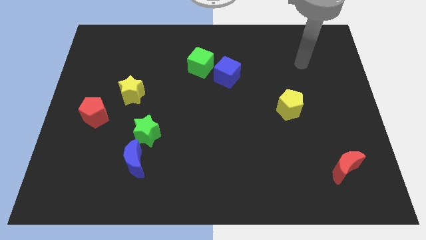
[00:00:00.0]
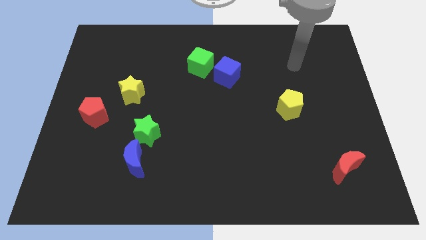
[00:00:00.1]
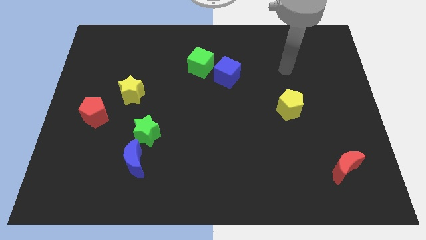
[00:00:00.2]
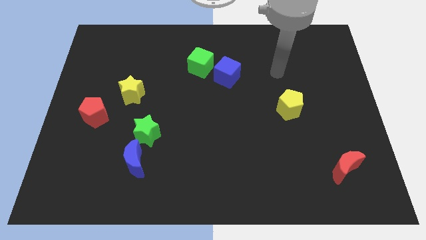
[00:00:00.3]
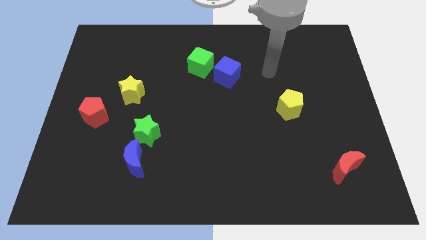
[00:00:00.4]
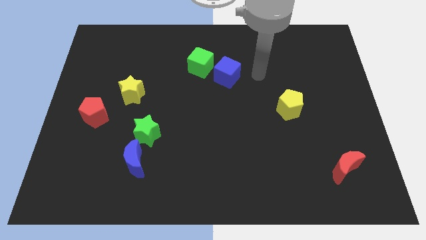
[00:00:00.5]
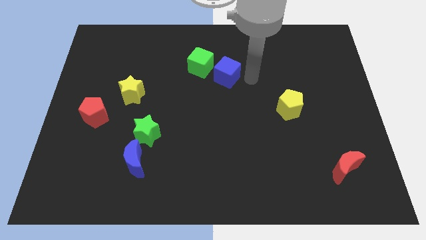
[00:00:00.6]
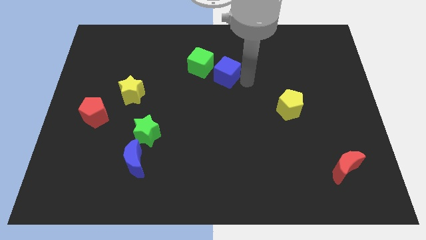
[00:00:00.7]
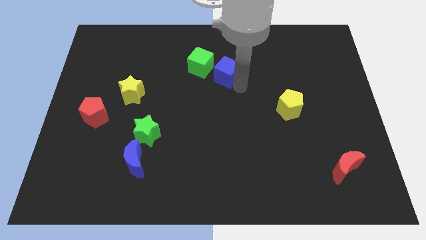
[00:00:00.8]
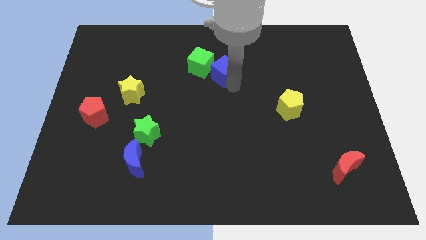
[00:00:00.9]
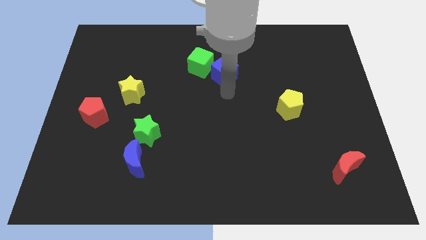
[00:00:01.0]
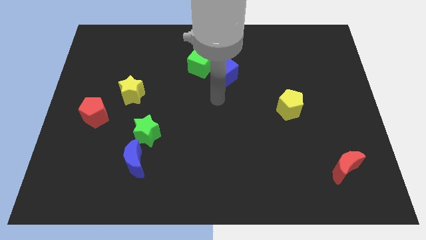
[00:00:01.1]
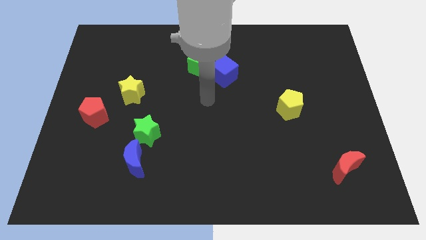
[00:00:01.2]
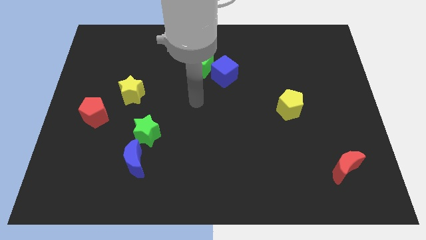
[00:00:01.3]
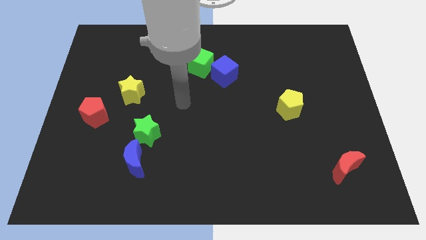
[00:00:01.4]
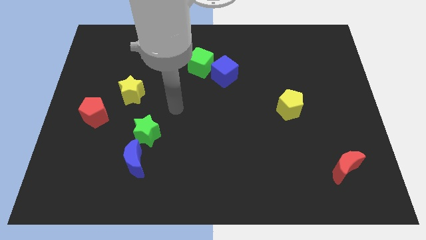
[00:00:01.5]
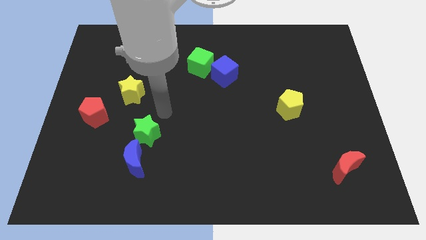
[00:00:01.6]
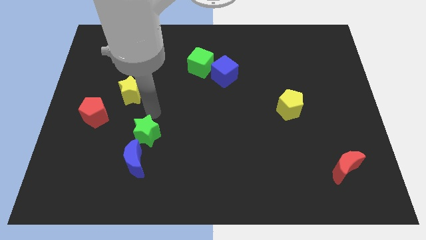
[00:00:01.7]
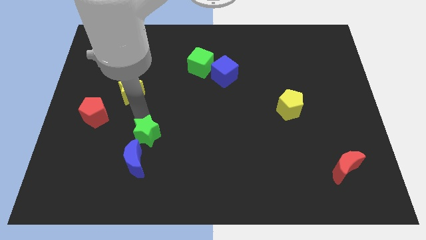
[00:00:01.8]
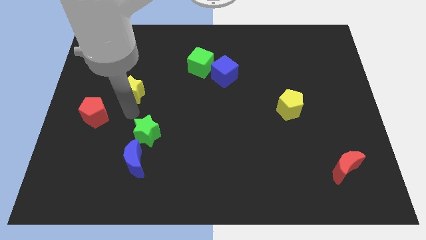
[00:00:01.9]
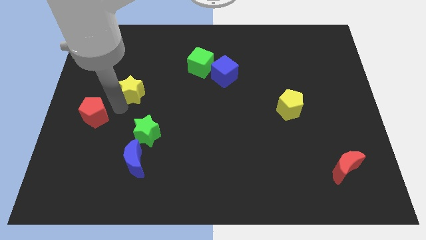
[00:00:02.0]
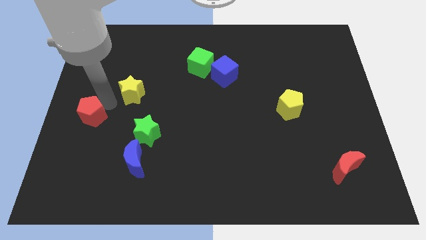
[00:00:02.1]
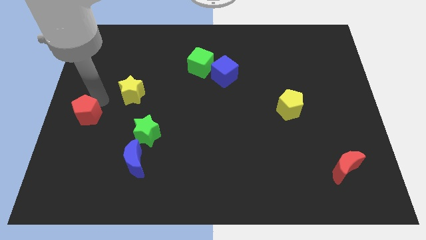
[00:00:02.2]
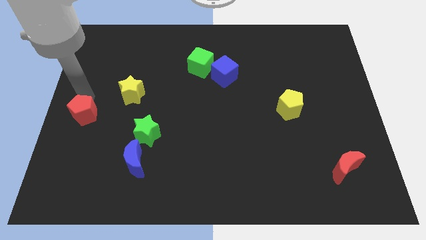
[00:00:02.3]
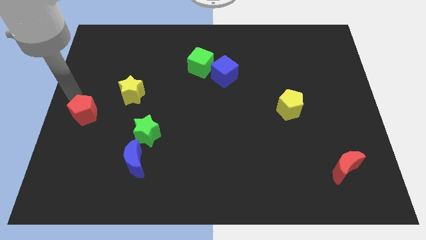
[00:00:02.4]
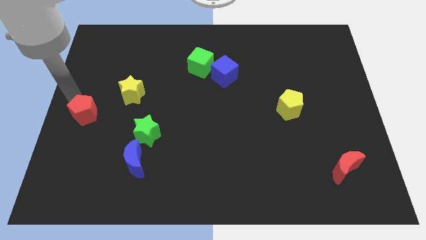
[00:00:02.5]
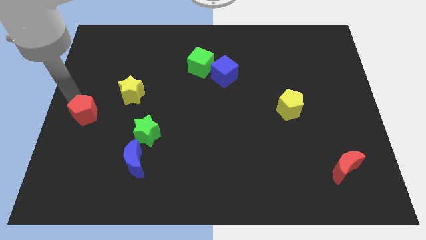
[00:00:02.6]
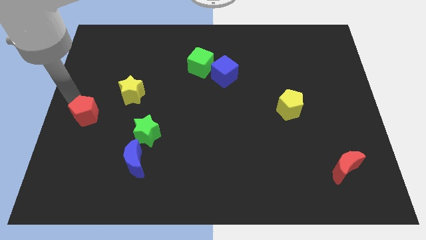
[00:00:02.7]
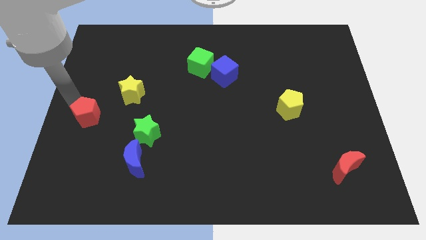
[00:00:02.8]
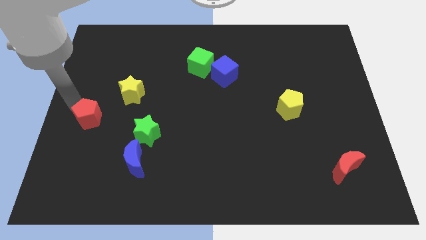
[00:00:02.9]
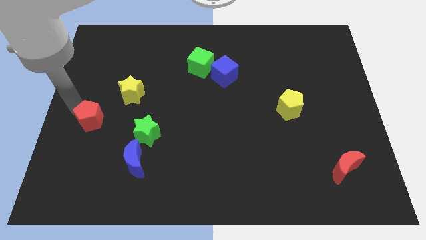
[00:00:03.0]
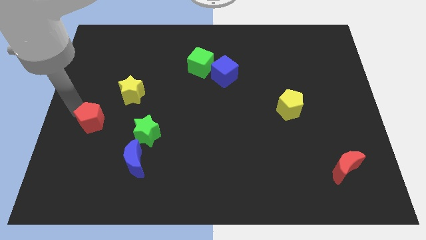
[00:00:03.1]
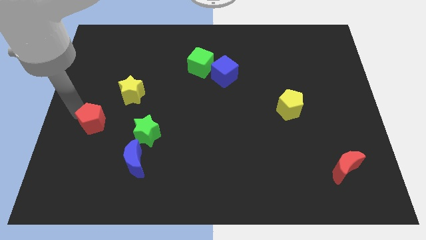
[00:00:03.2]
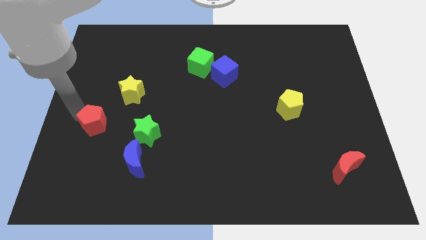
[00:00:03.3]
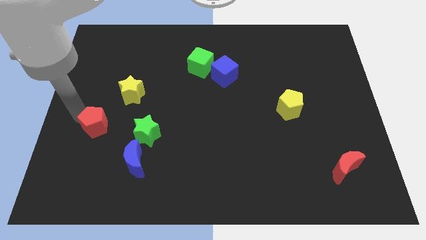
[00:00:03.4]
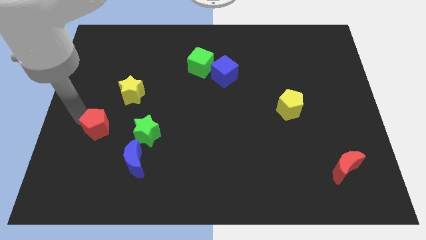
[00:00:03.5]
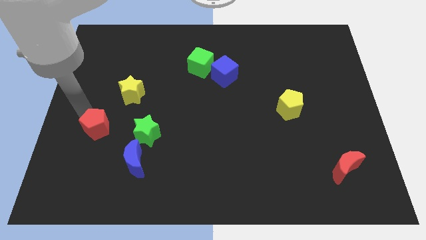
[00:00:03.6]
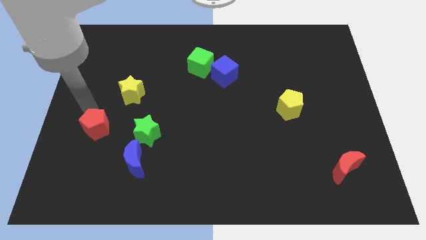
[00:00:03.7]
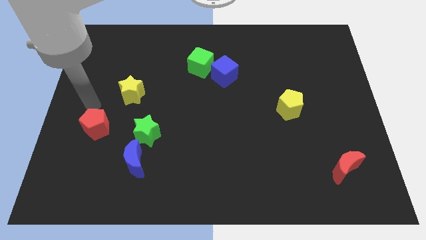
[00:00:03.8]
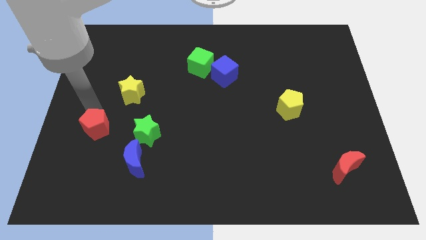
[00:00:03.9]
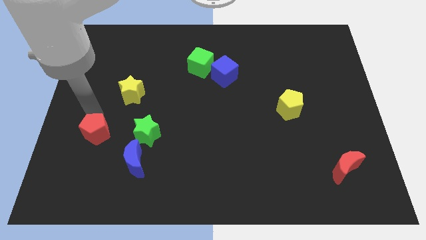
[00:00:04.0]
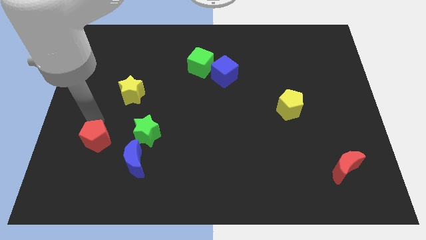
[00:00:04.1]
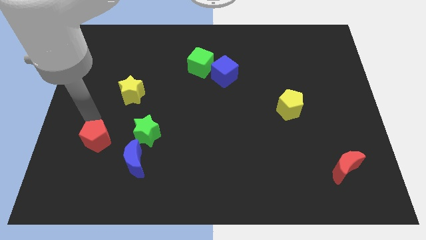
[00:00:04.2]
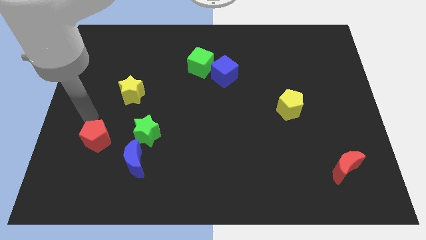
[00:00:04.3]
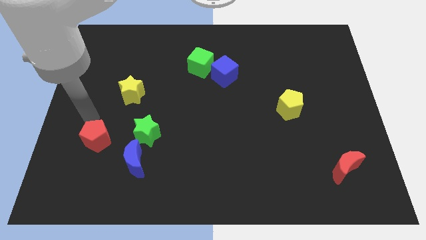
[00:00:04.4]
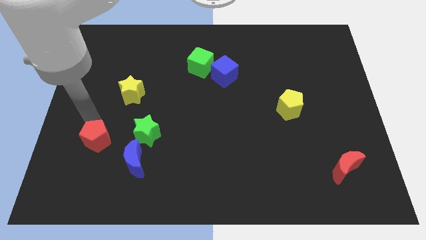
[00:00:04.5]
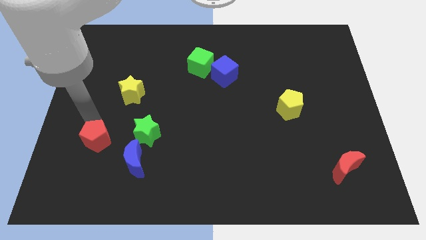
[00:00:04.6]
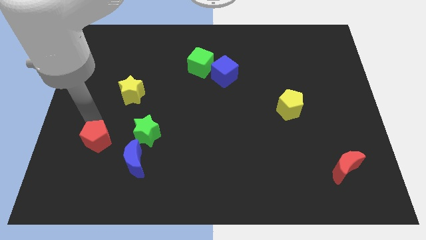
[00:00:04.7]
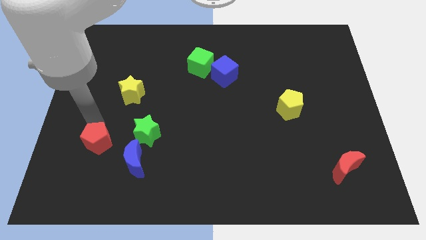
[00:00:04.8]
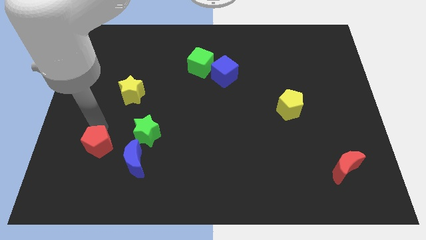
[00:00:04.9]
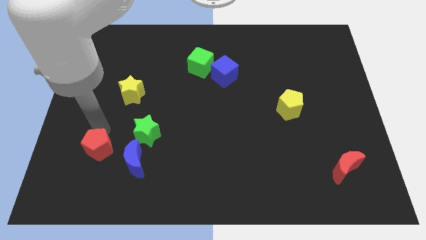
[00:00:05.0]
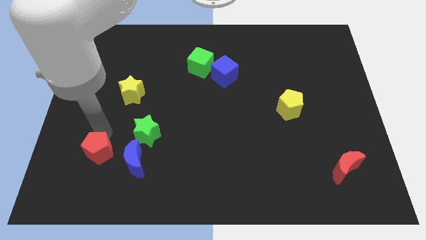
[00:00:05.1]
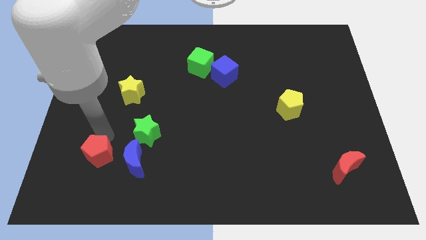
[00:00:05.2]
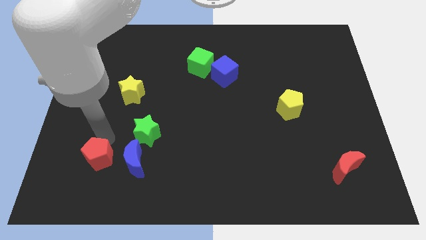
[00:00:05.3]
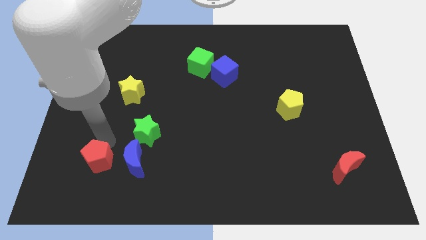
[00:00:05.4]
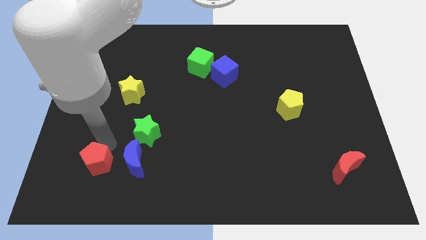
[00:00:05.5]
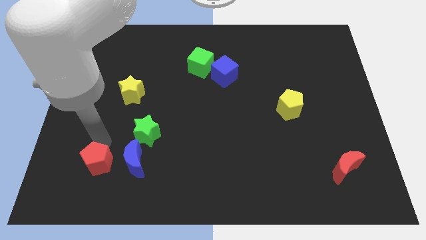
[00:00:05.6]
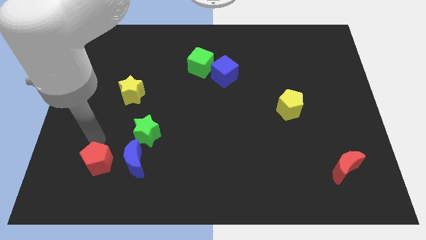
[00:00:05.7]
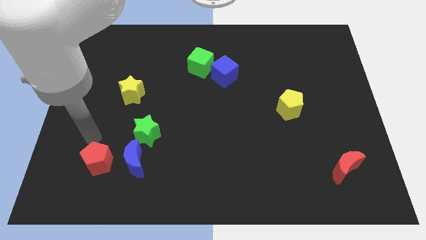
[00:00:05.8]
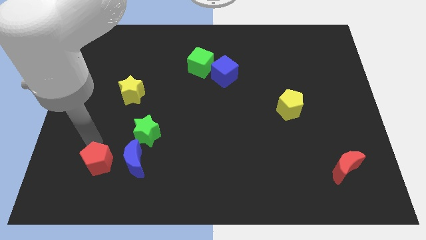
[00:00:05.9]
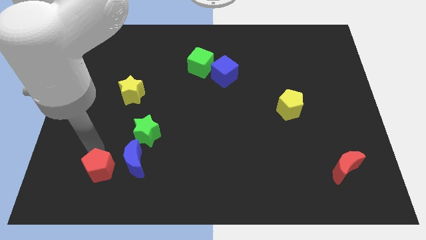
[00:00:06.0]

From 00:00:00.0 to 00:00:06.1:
push the red pentagon to the bottom left of the blue moon

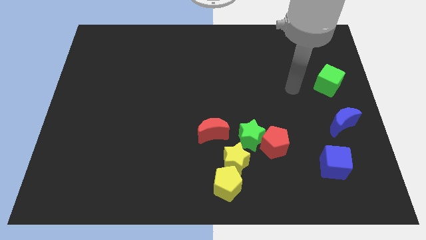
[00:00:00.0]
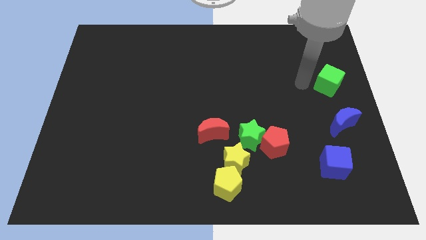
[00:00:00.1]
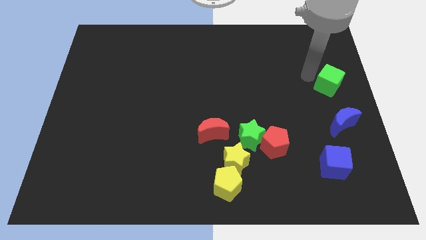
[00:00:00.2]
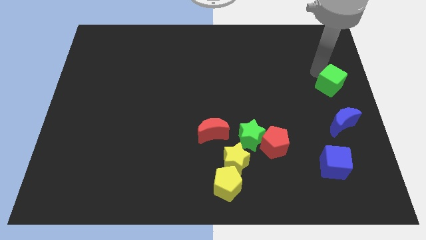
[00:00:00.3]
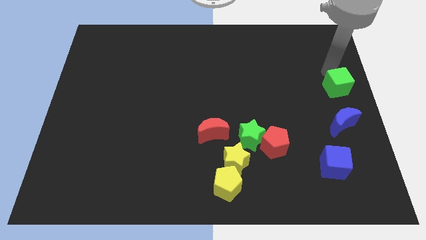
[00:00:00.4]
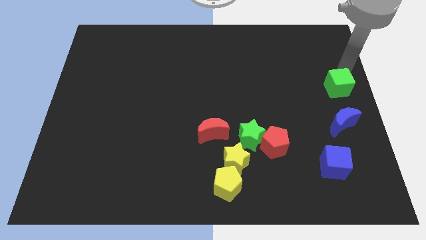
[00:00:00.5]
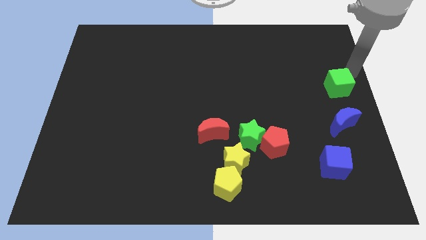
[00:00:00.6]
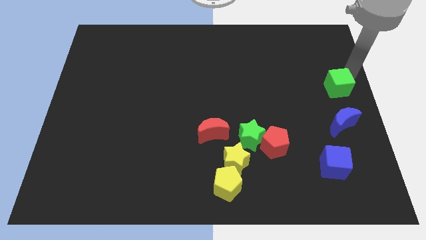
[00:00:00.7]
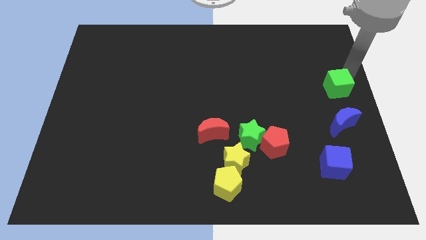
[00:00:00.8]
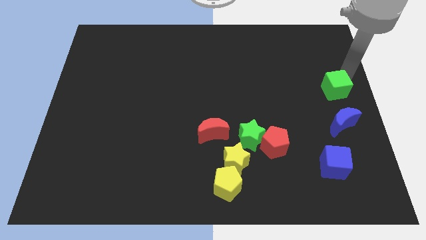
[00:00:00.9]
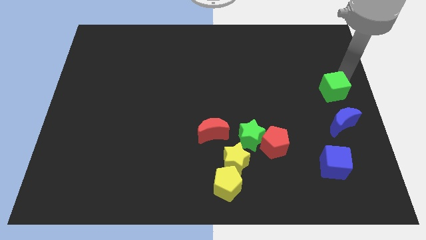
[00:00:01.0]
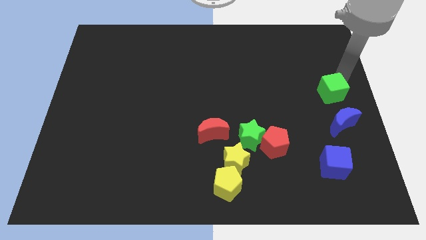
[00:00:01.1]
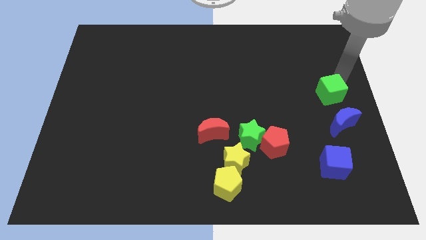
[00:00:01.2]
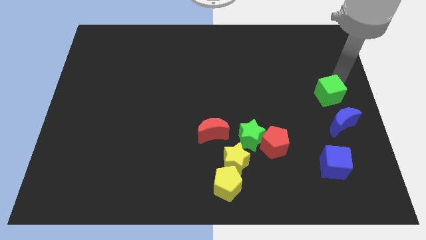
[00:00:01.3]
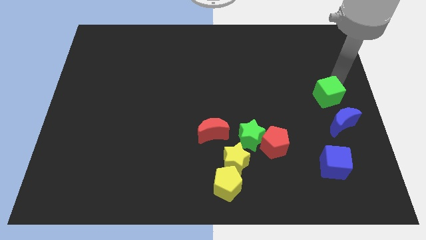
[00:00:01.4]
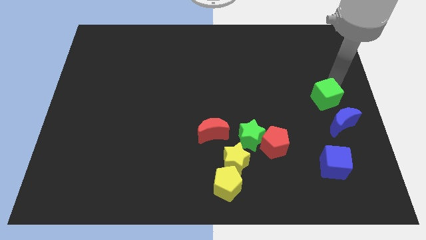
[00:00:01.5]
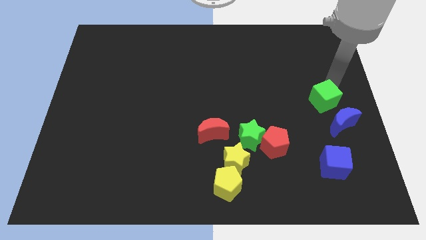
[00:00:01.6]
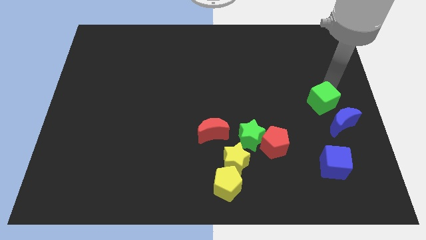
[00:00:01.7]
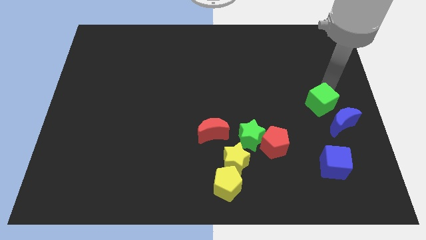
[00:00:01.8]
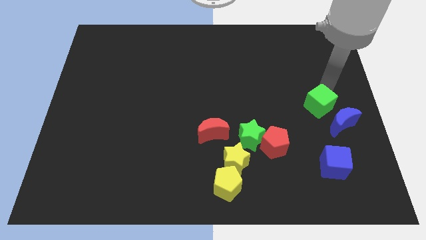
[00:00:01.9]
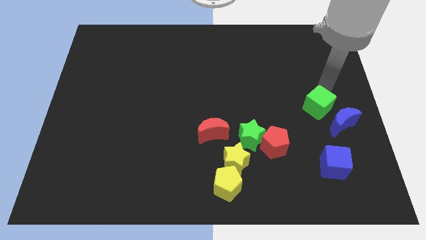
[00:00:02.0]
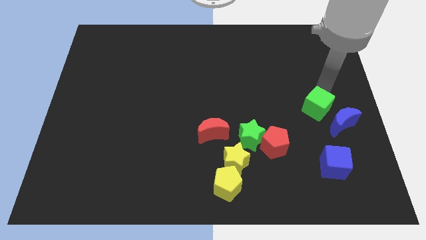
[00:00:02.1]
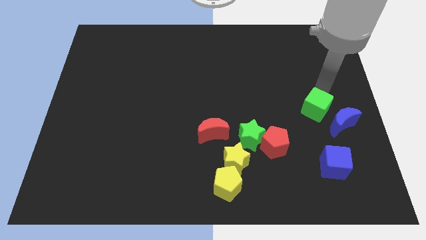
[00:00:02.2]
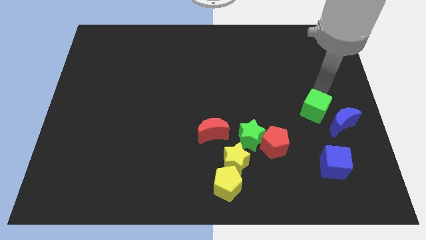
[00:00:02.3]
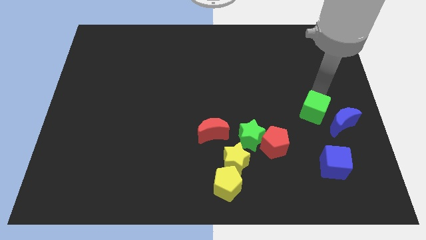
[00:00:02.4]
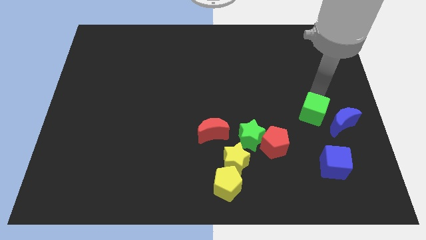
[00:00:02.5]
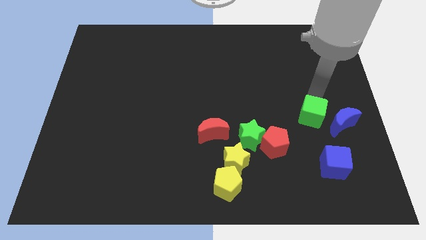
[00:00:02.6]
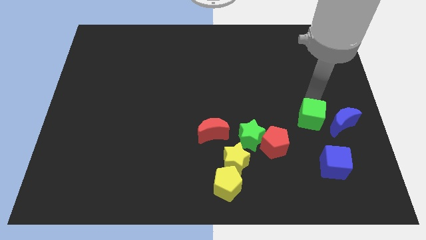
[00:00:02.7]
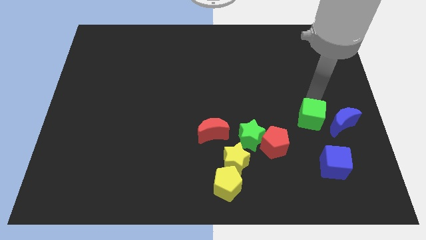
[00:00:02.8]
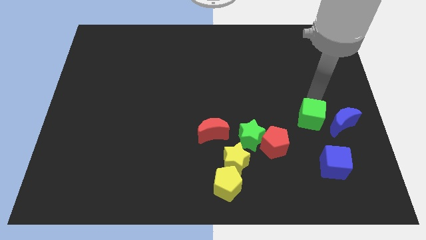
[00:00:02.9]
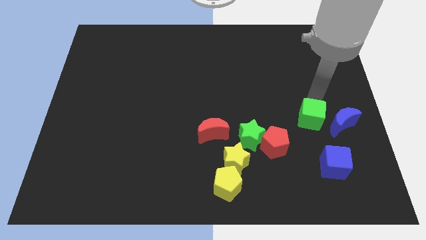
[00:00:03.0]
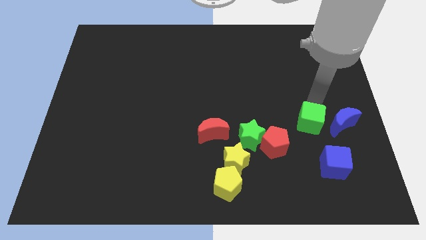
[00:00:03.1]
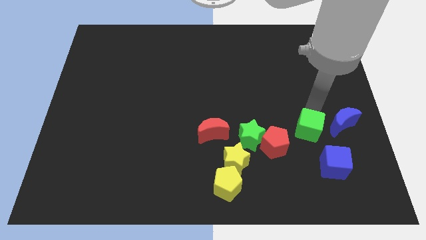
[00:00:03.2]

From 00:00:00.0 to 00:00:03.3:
push the green cube diagonally up and to the left of the blue cube
